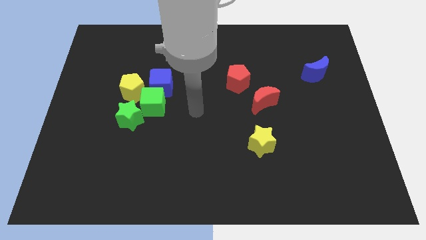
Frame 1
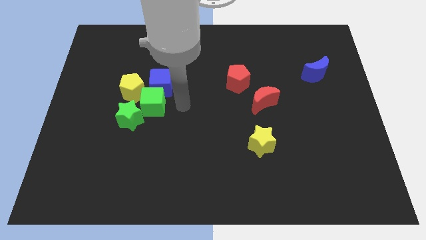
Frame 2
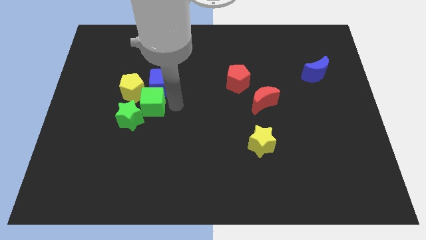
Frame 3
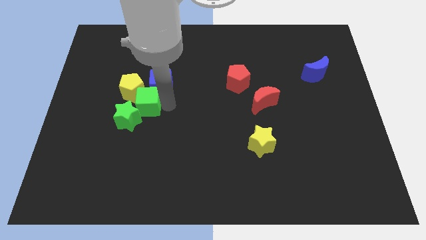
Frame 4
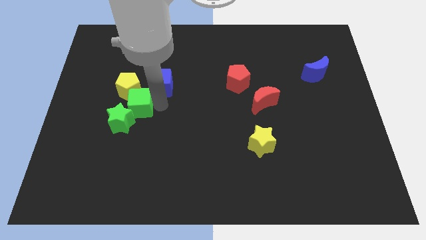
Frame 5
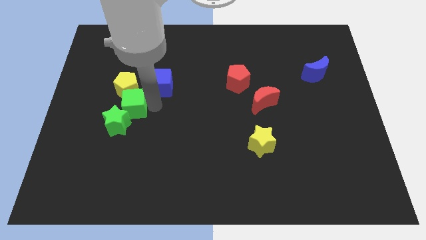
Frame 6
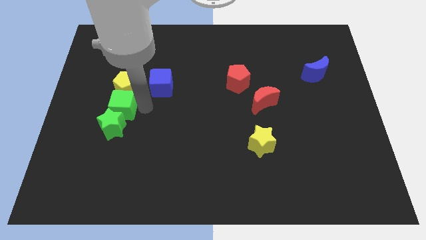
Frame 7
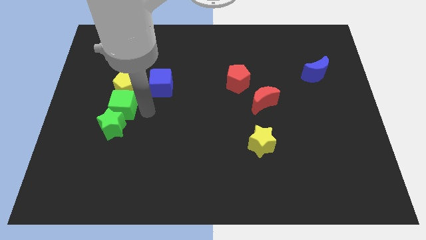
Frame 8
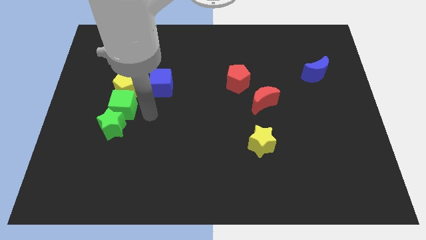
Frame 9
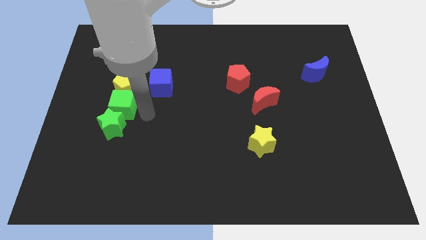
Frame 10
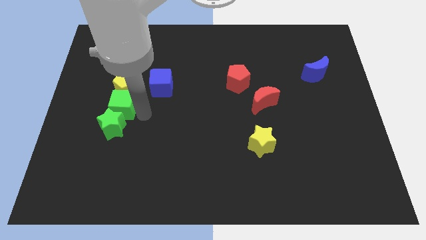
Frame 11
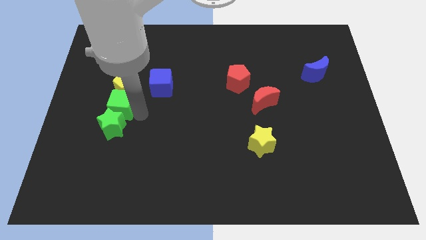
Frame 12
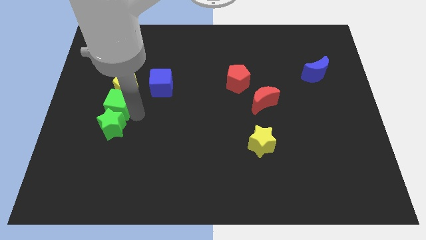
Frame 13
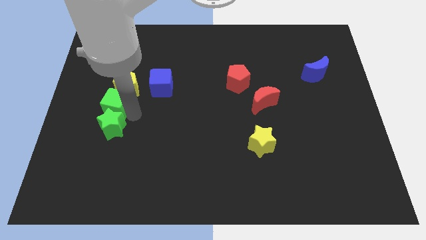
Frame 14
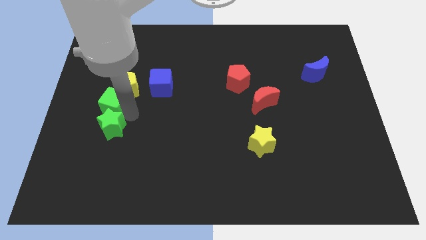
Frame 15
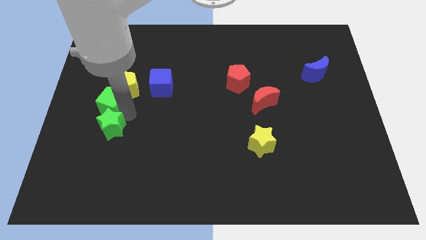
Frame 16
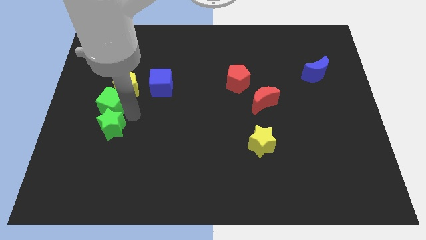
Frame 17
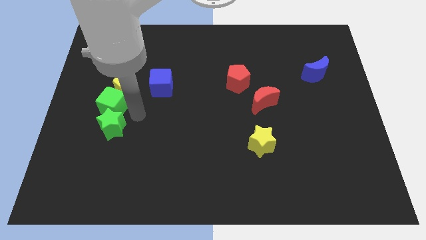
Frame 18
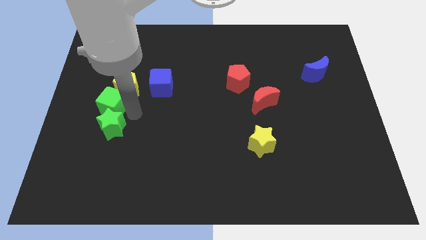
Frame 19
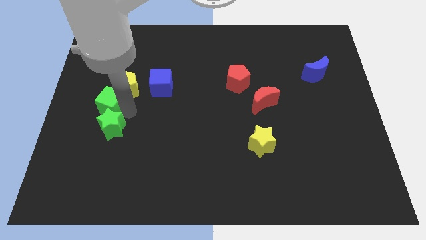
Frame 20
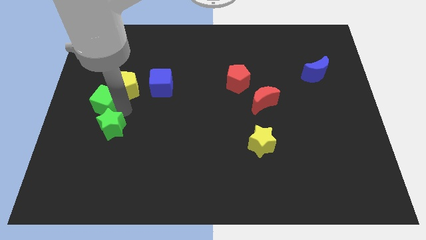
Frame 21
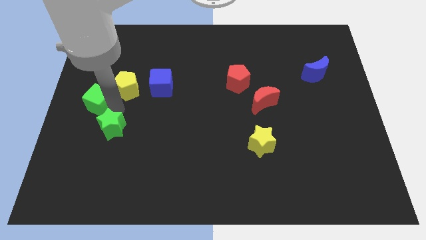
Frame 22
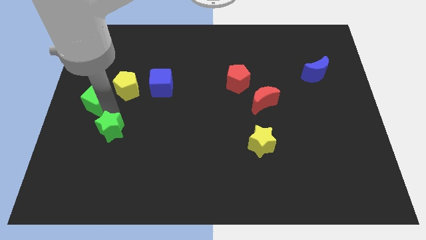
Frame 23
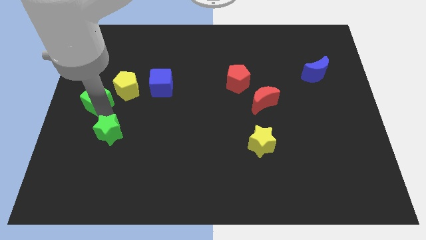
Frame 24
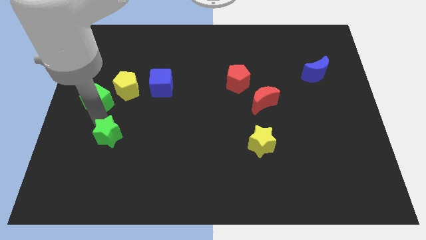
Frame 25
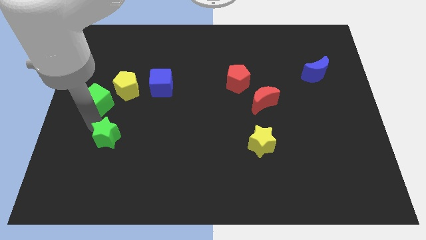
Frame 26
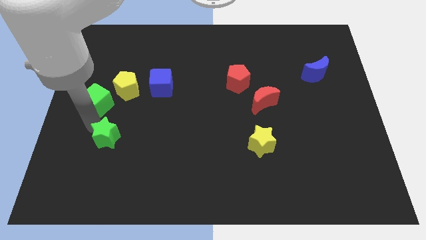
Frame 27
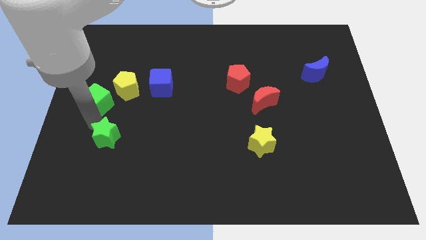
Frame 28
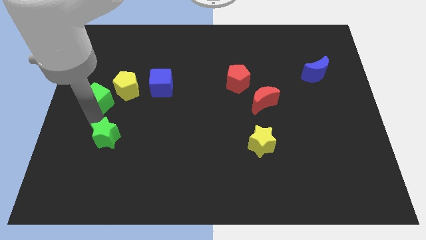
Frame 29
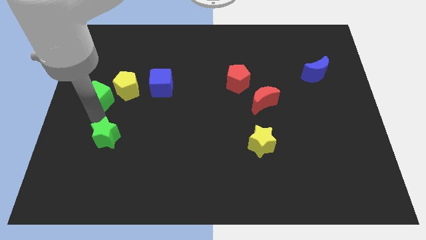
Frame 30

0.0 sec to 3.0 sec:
slightly push the green cube up and left

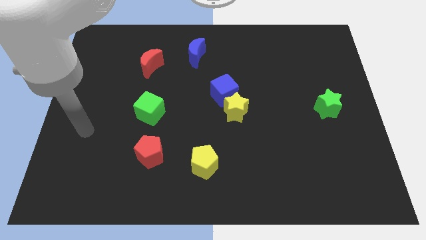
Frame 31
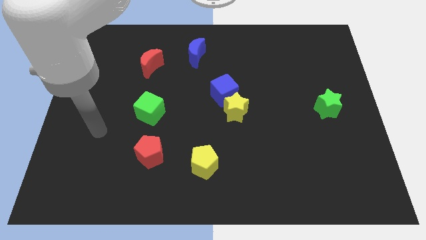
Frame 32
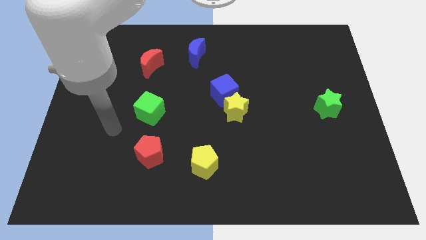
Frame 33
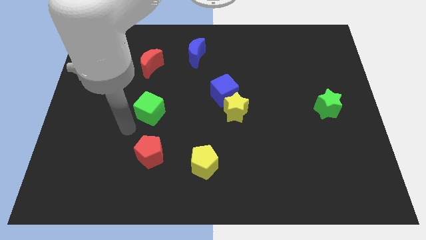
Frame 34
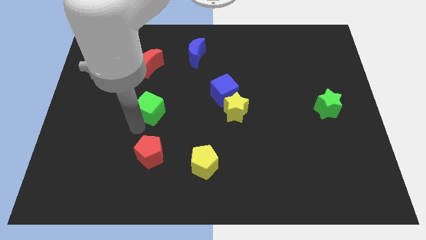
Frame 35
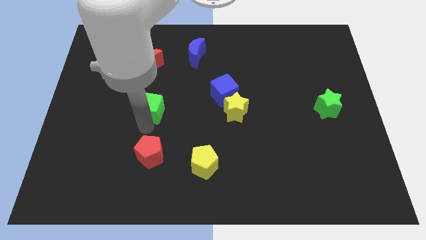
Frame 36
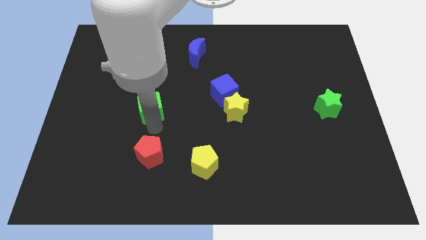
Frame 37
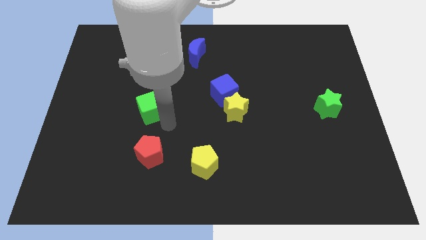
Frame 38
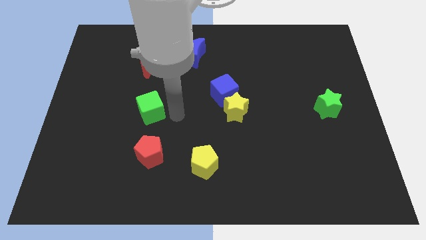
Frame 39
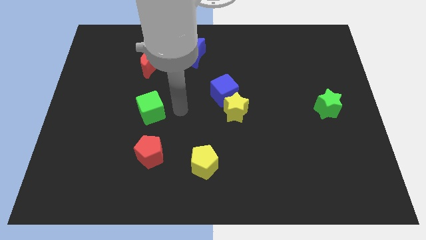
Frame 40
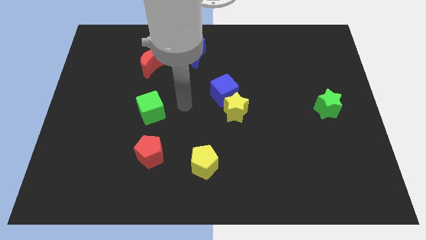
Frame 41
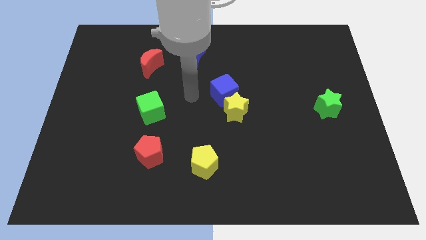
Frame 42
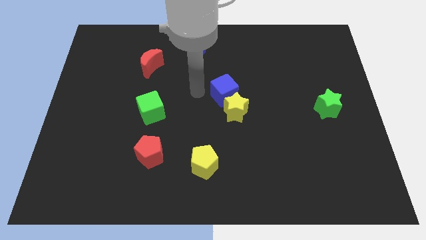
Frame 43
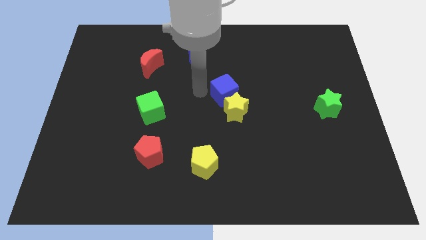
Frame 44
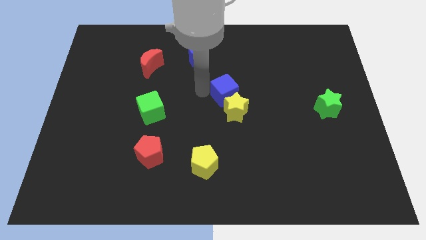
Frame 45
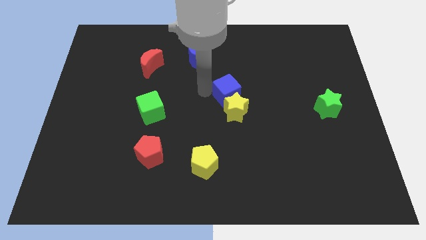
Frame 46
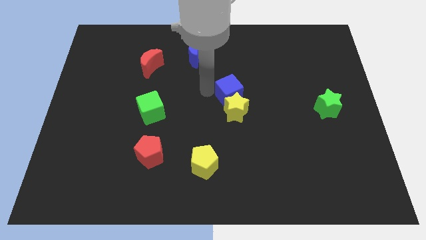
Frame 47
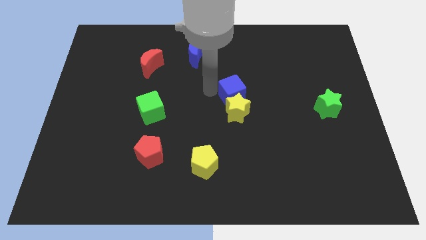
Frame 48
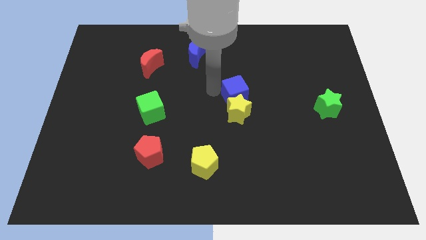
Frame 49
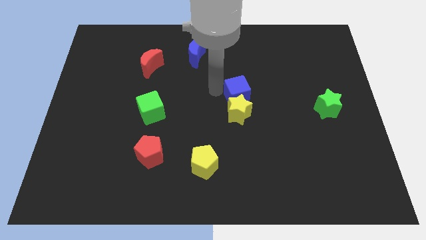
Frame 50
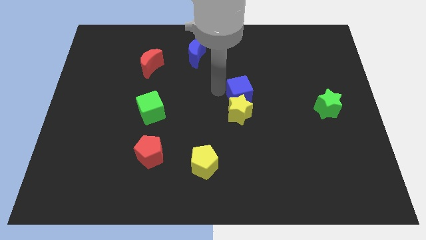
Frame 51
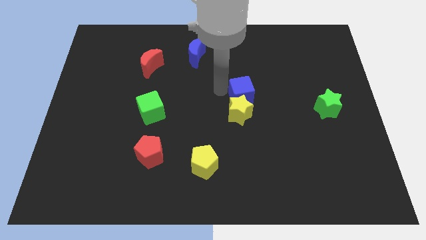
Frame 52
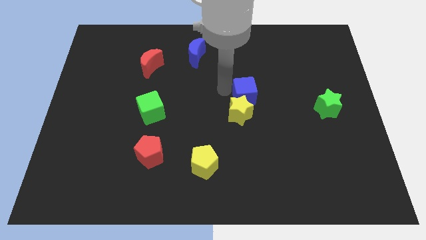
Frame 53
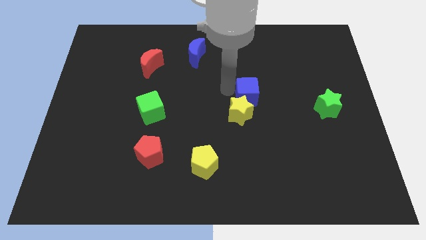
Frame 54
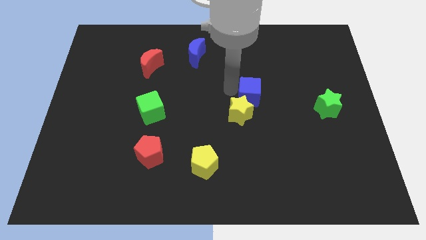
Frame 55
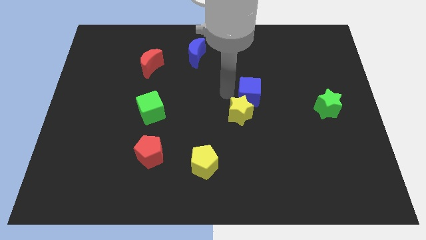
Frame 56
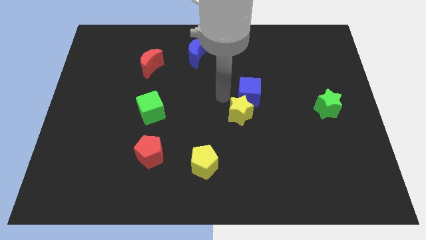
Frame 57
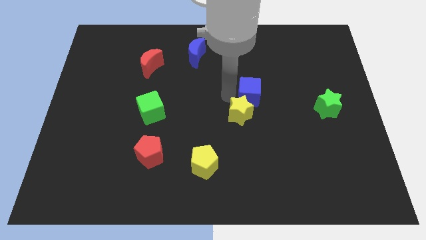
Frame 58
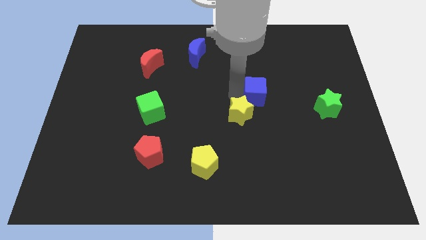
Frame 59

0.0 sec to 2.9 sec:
move the blue cube somewhat right

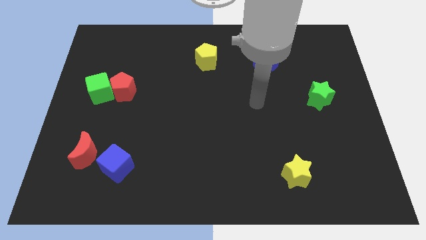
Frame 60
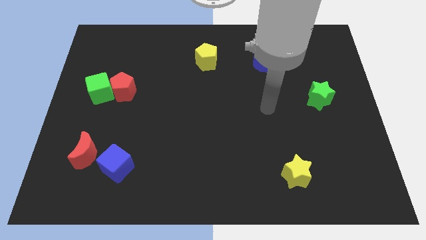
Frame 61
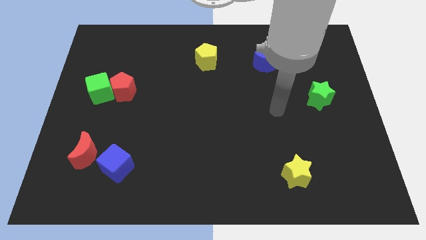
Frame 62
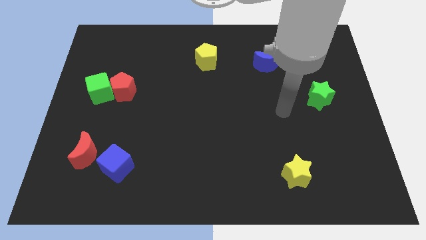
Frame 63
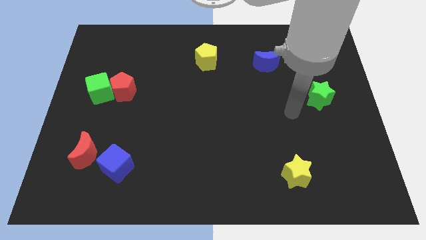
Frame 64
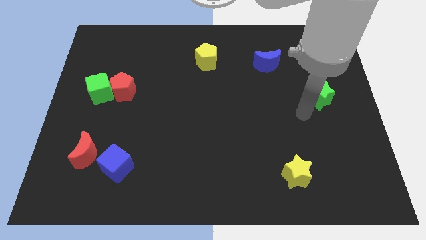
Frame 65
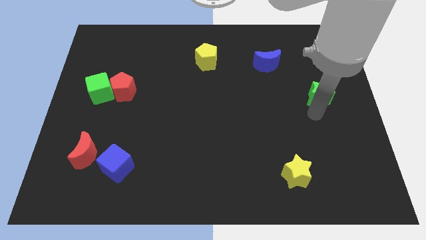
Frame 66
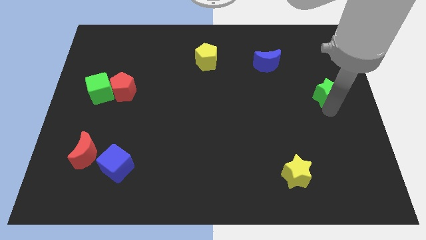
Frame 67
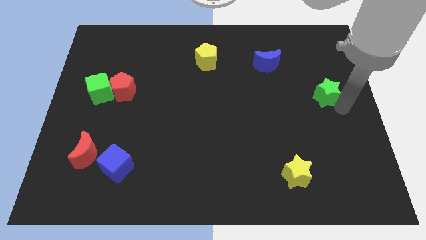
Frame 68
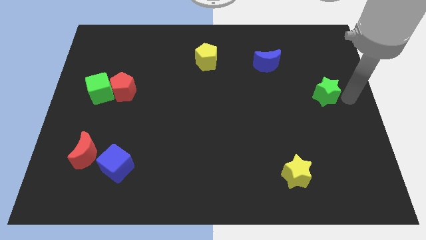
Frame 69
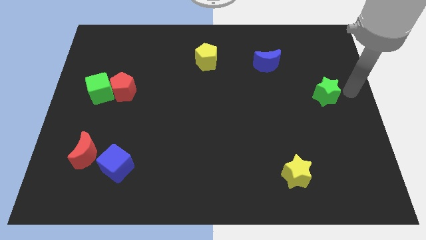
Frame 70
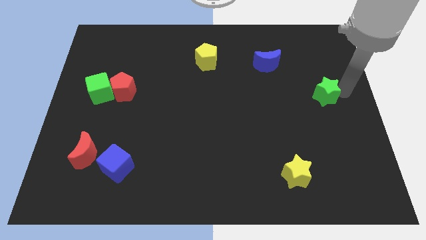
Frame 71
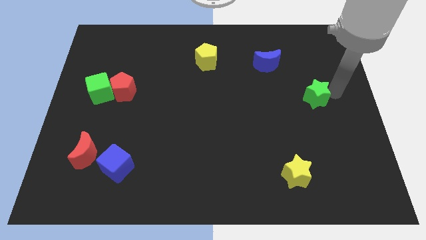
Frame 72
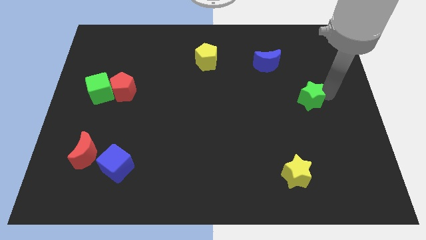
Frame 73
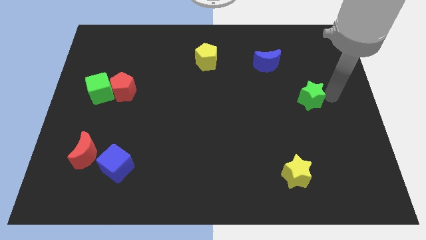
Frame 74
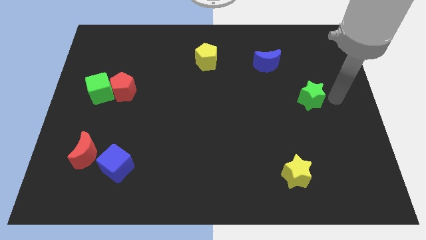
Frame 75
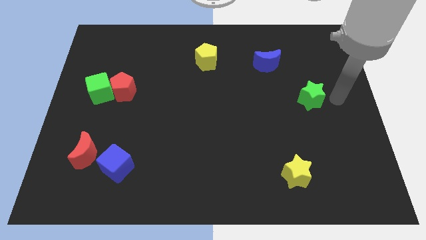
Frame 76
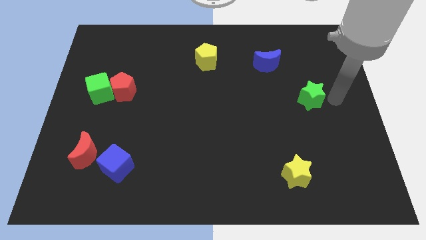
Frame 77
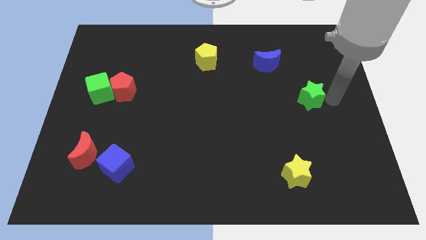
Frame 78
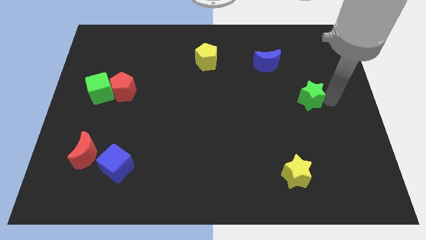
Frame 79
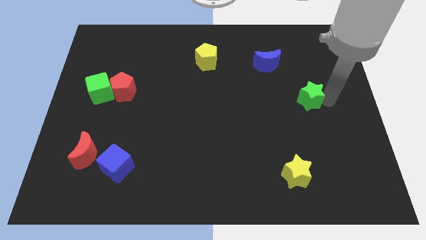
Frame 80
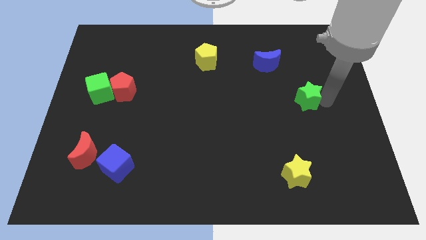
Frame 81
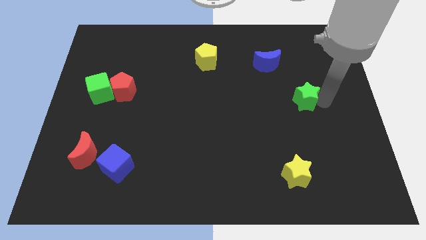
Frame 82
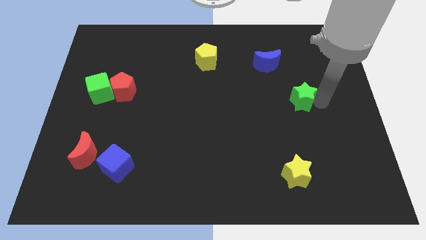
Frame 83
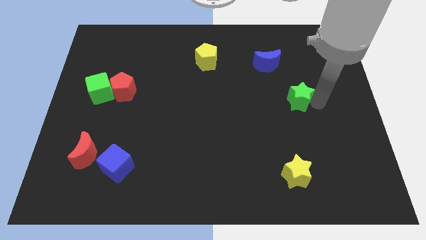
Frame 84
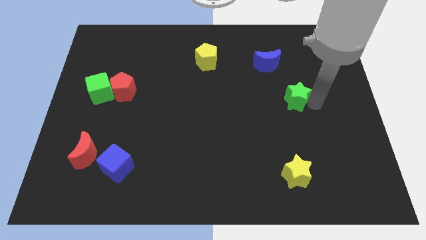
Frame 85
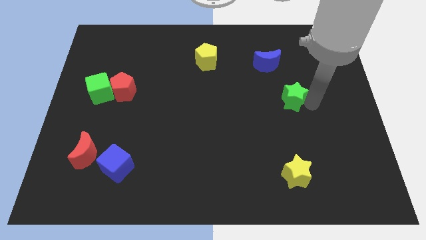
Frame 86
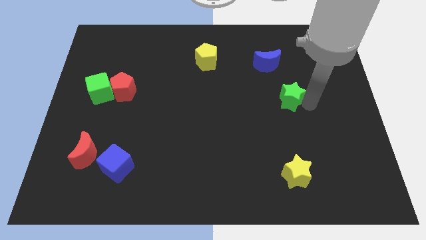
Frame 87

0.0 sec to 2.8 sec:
move the green star to the left a bit
